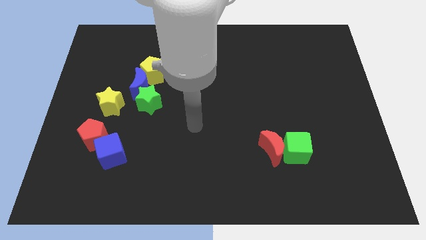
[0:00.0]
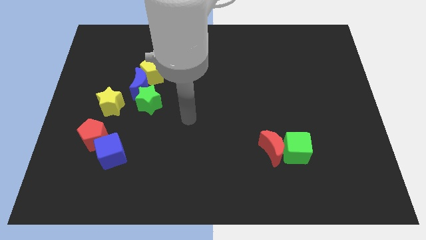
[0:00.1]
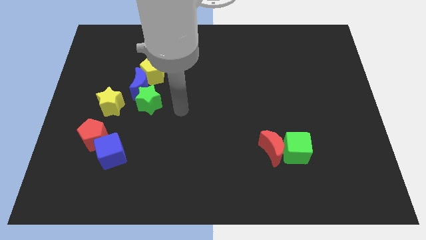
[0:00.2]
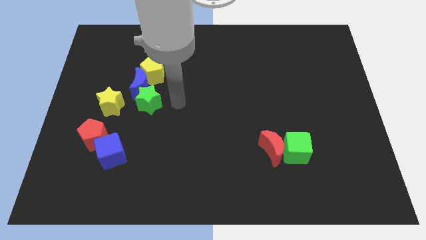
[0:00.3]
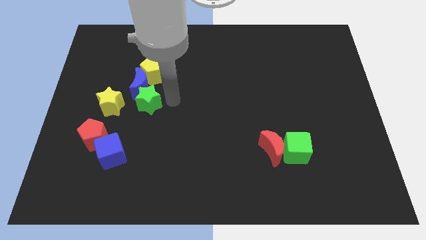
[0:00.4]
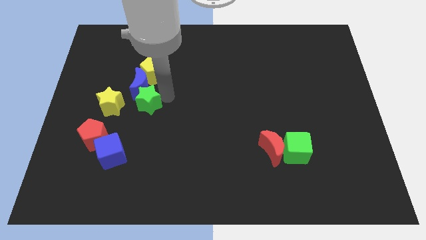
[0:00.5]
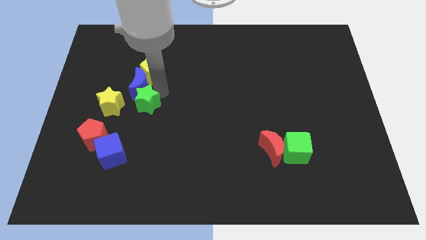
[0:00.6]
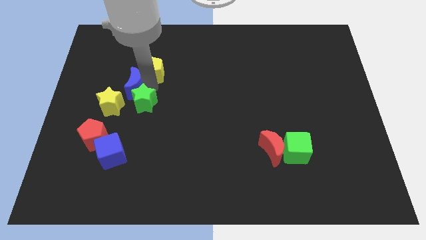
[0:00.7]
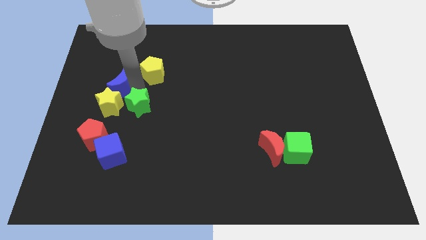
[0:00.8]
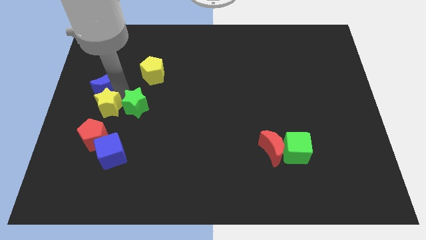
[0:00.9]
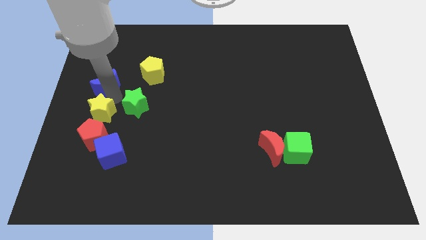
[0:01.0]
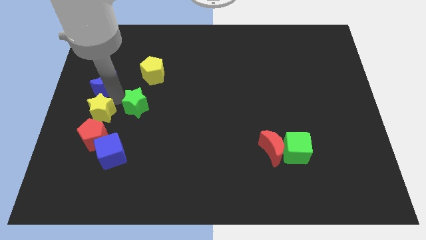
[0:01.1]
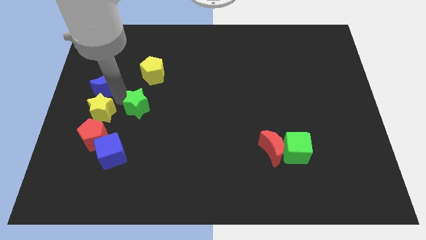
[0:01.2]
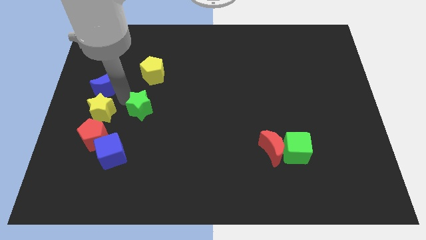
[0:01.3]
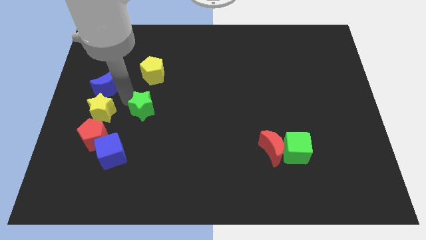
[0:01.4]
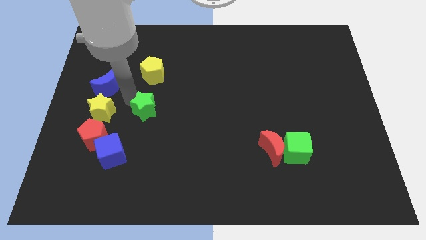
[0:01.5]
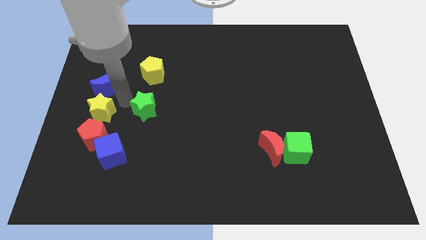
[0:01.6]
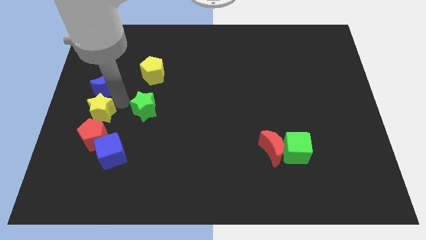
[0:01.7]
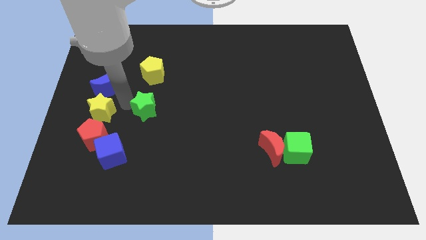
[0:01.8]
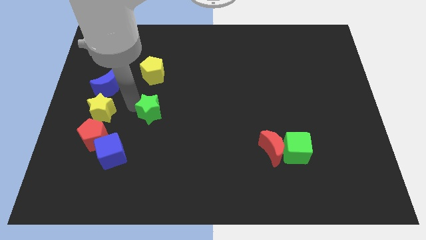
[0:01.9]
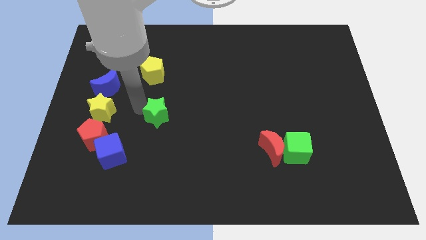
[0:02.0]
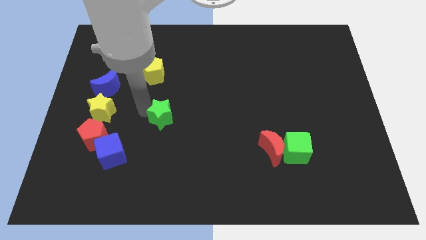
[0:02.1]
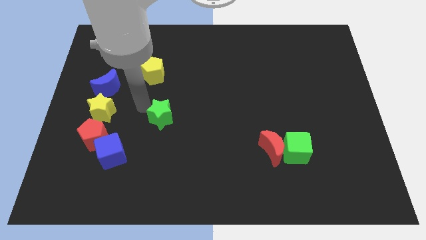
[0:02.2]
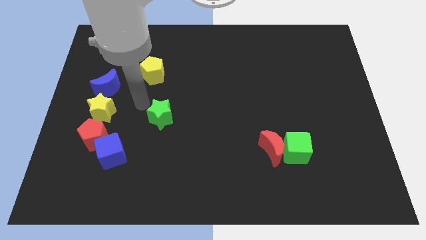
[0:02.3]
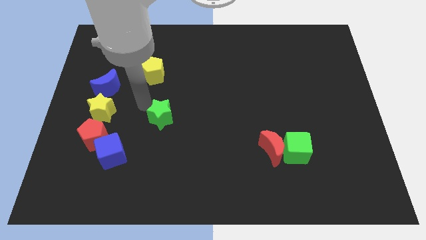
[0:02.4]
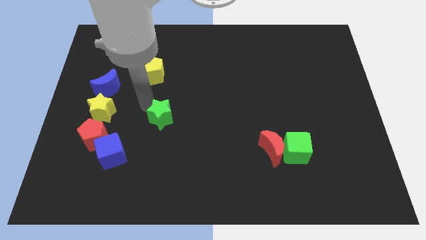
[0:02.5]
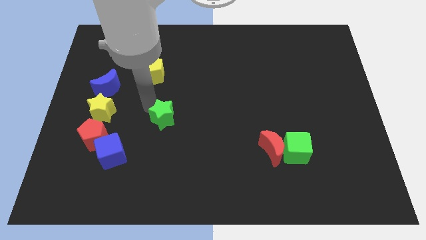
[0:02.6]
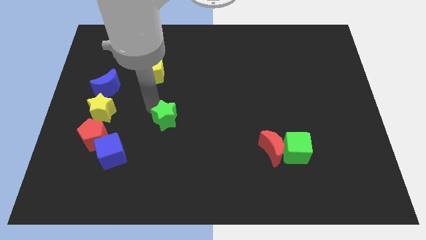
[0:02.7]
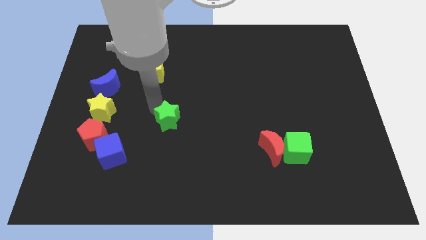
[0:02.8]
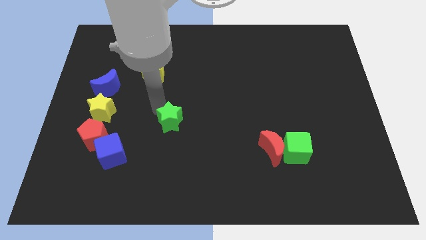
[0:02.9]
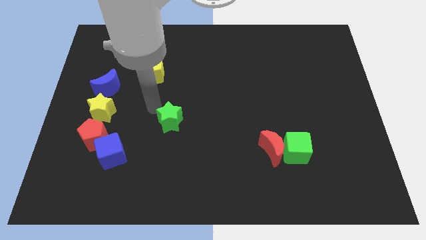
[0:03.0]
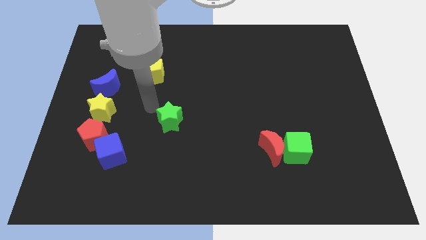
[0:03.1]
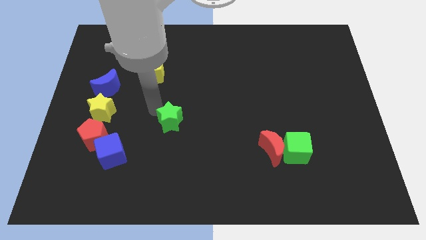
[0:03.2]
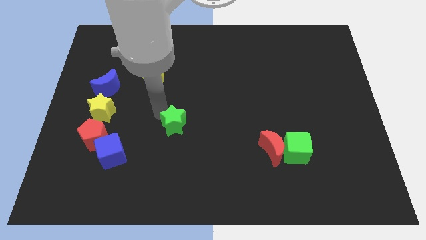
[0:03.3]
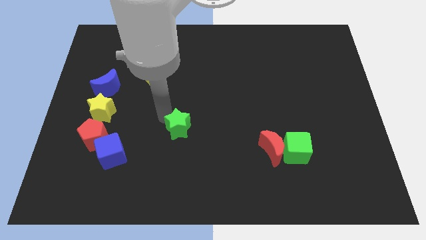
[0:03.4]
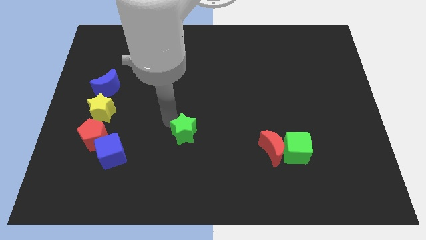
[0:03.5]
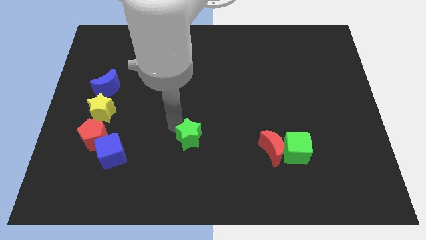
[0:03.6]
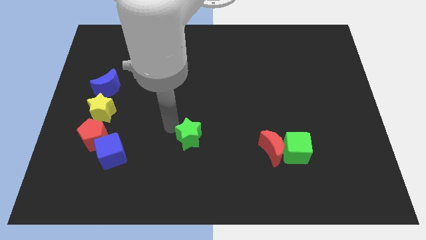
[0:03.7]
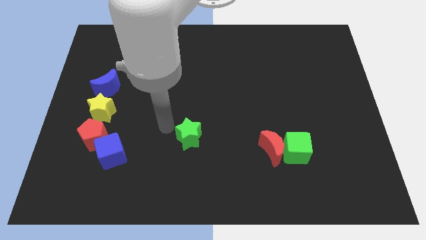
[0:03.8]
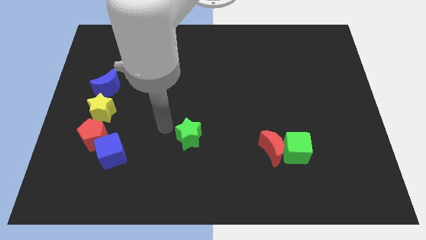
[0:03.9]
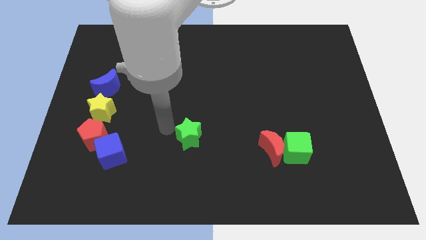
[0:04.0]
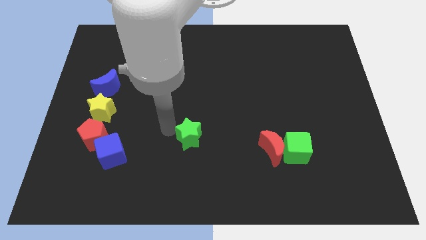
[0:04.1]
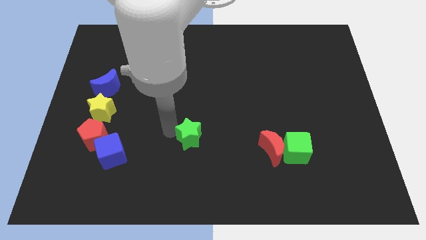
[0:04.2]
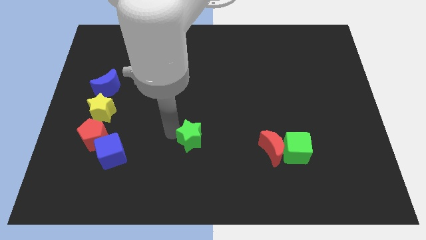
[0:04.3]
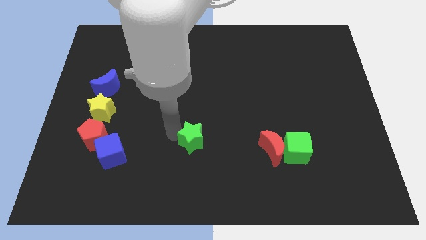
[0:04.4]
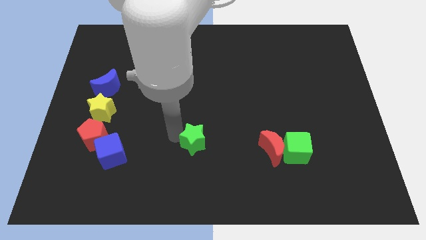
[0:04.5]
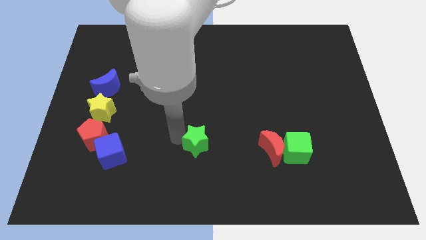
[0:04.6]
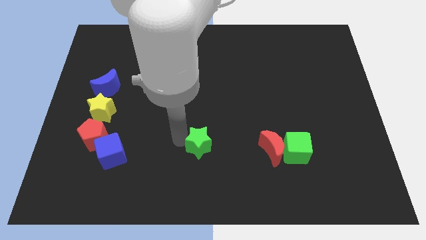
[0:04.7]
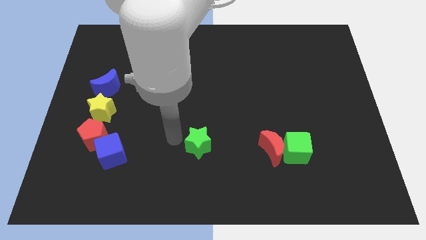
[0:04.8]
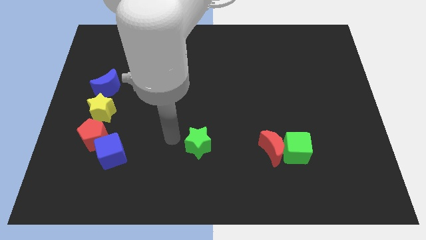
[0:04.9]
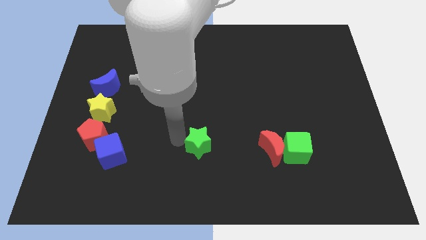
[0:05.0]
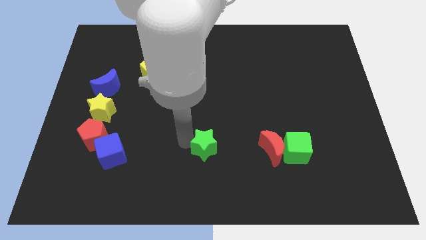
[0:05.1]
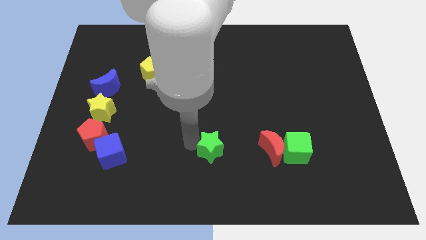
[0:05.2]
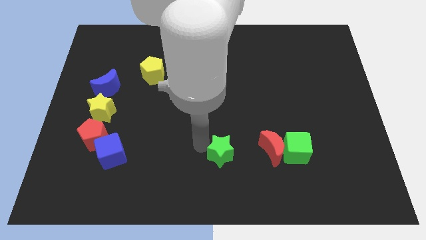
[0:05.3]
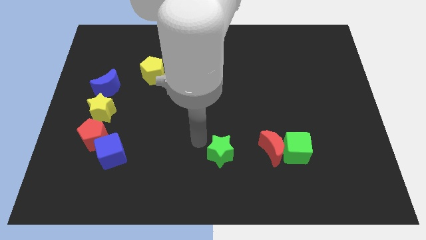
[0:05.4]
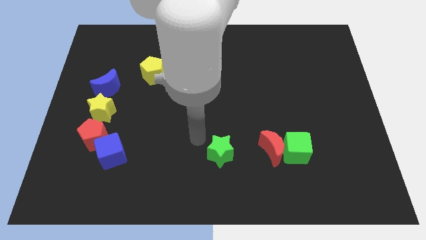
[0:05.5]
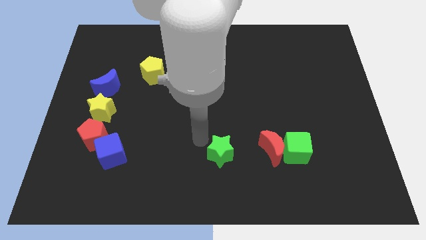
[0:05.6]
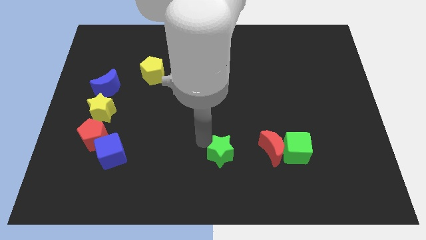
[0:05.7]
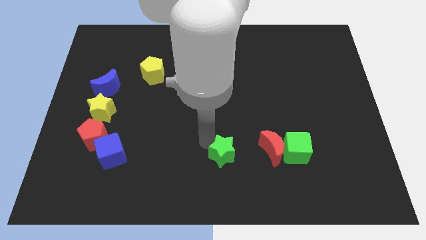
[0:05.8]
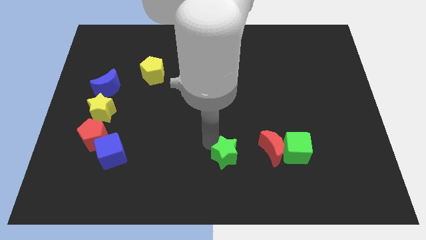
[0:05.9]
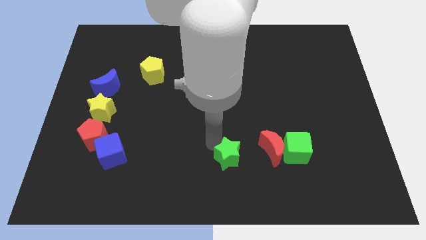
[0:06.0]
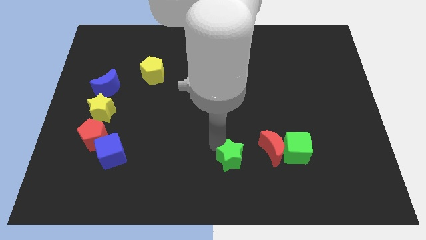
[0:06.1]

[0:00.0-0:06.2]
move the green star to the bottom left of the red moon

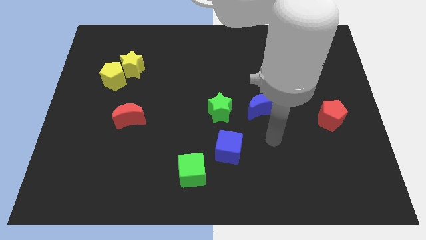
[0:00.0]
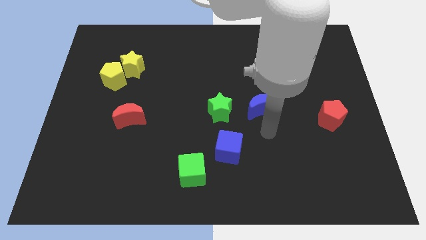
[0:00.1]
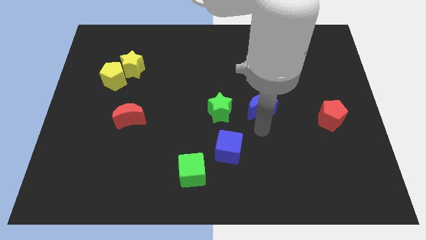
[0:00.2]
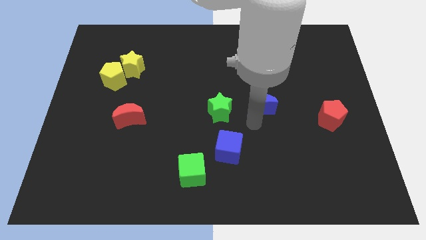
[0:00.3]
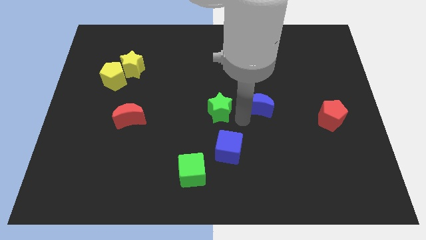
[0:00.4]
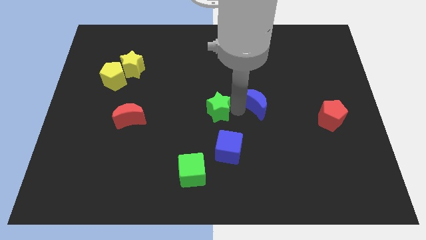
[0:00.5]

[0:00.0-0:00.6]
put the green star diagonally down and to the left of the blue moon
